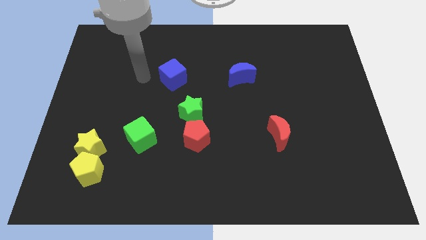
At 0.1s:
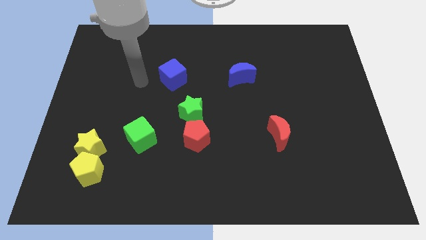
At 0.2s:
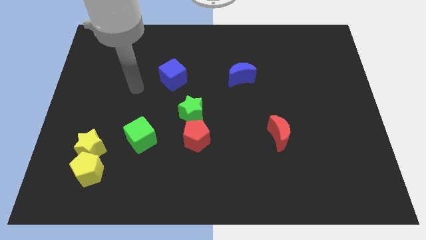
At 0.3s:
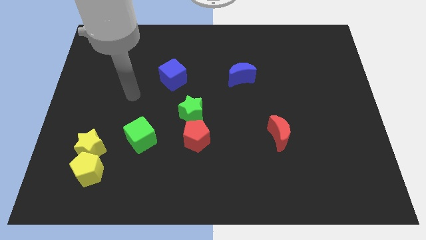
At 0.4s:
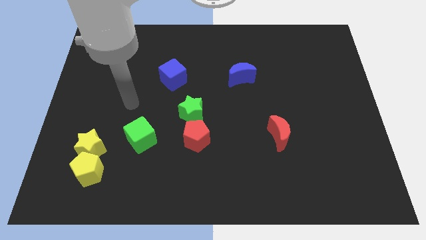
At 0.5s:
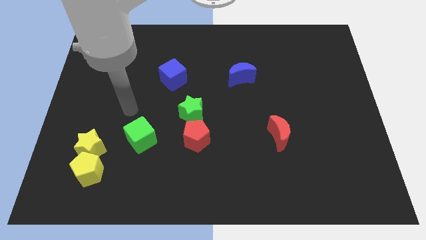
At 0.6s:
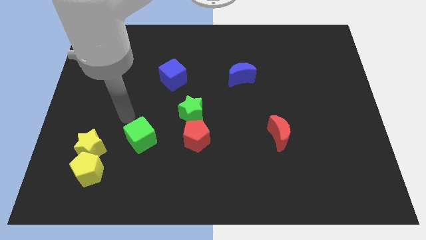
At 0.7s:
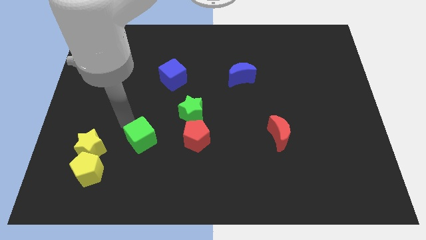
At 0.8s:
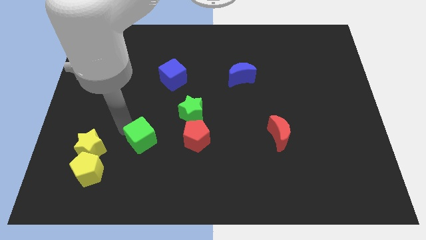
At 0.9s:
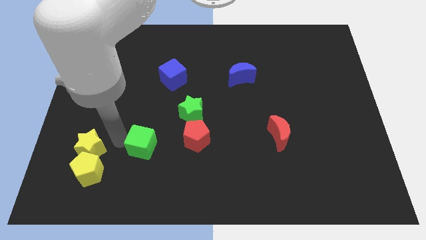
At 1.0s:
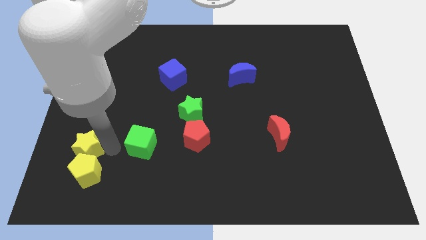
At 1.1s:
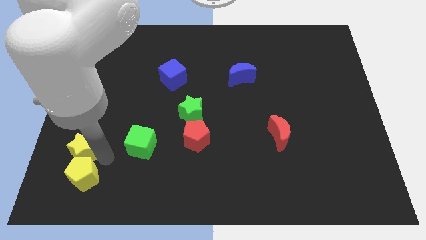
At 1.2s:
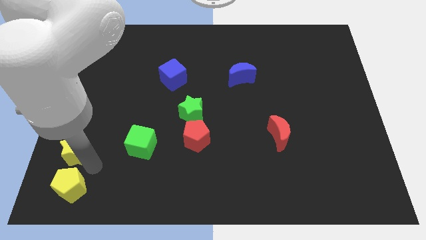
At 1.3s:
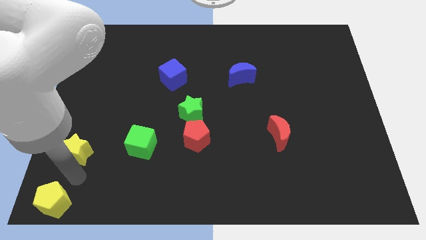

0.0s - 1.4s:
separate the yellow star from the yellow pentagon

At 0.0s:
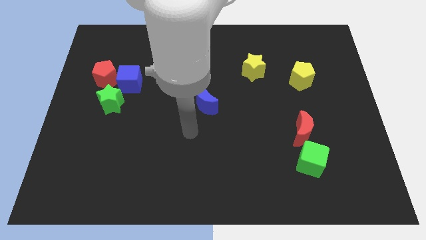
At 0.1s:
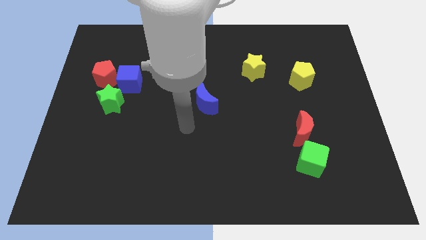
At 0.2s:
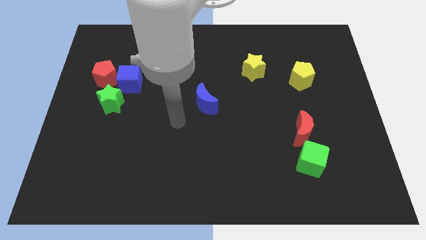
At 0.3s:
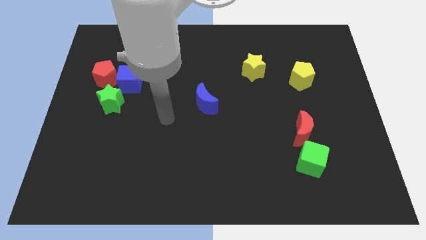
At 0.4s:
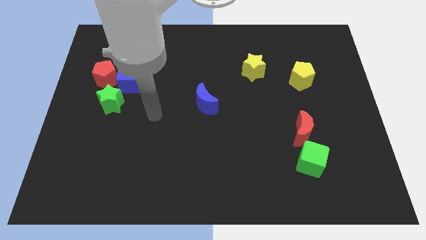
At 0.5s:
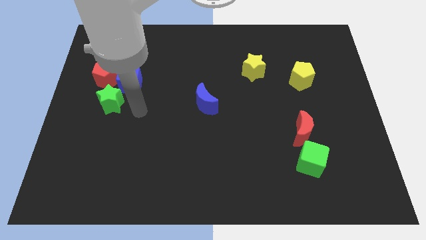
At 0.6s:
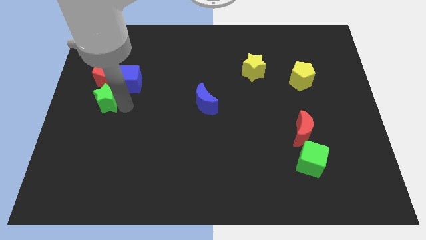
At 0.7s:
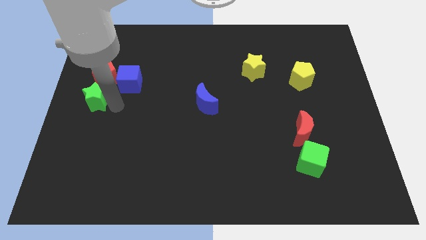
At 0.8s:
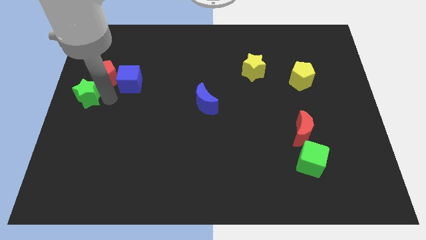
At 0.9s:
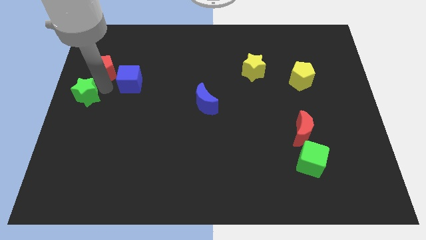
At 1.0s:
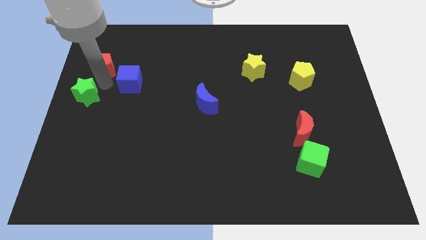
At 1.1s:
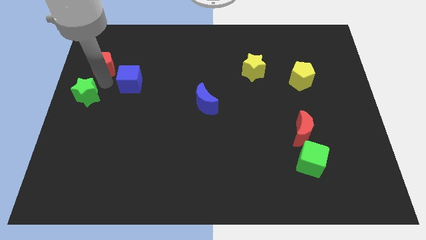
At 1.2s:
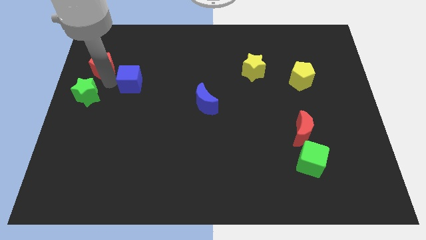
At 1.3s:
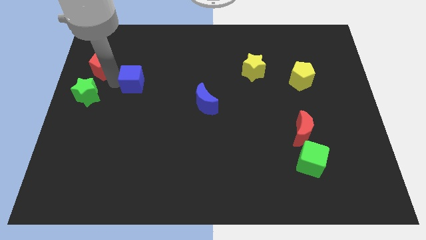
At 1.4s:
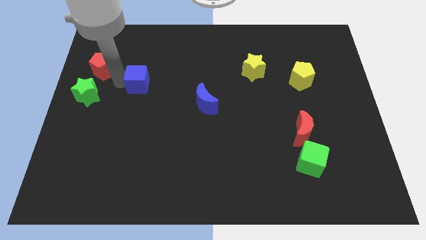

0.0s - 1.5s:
pull the blue cube apart from the red pentagon and green star

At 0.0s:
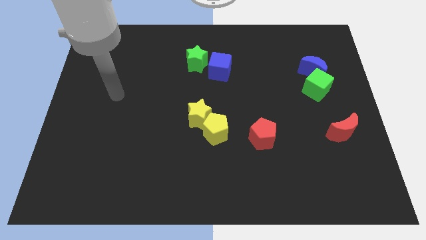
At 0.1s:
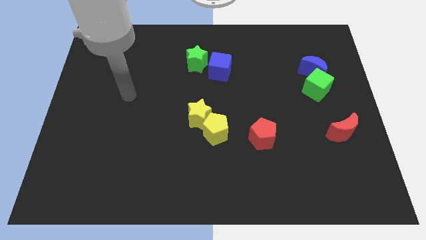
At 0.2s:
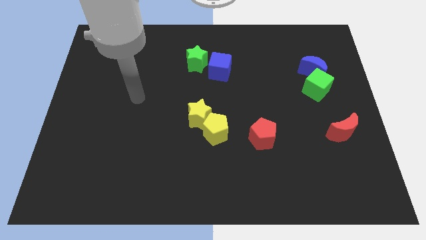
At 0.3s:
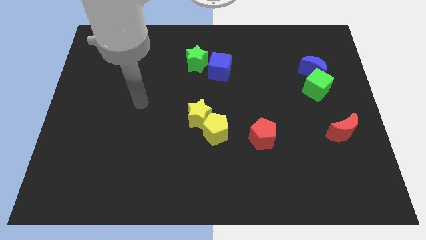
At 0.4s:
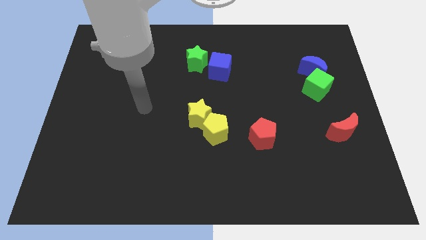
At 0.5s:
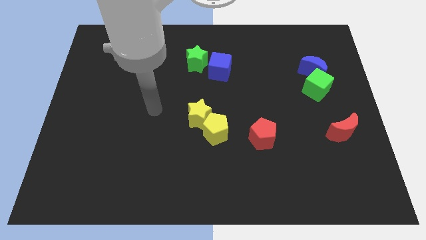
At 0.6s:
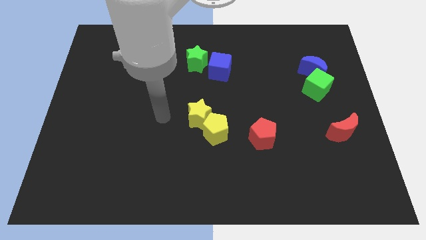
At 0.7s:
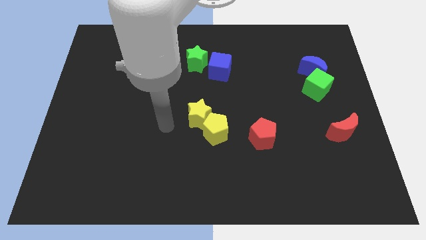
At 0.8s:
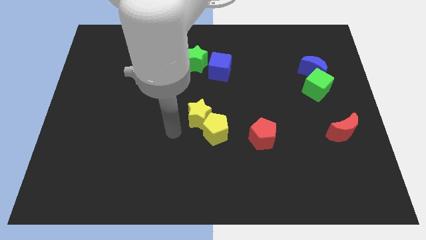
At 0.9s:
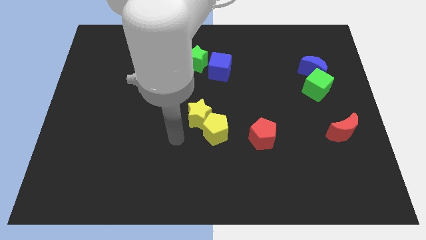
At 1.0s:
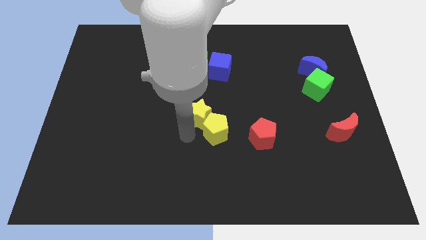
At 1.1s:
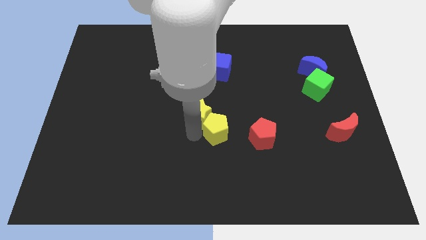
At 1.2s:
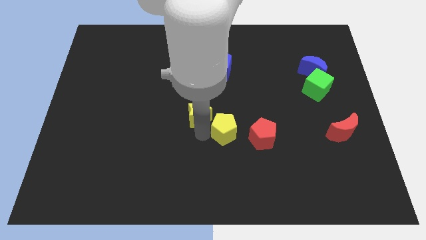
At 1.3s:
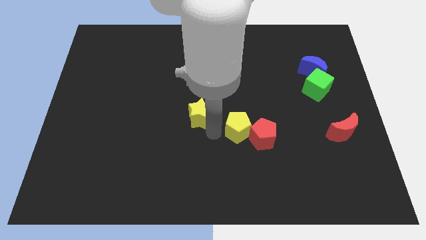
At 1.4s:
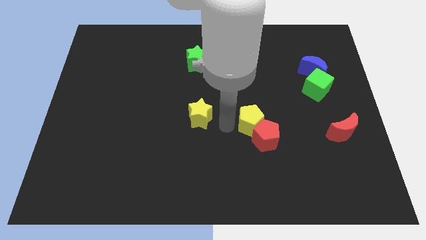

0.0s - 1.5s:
pull the yellow star apart from the yellow pentagon

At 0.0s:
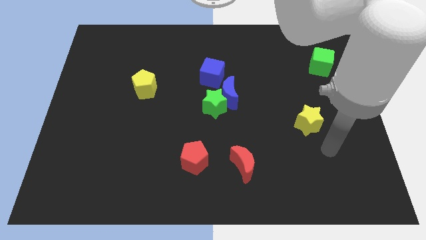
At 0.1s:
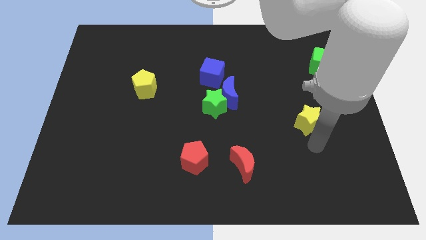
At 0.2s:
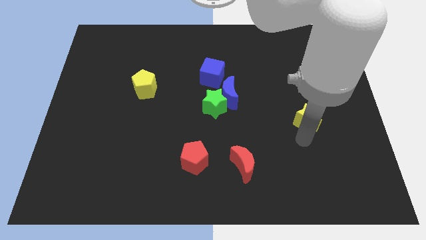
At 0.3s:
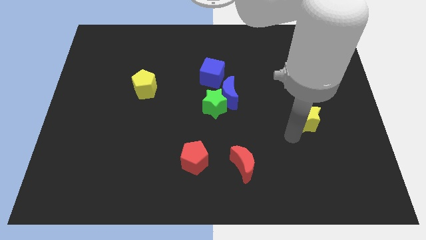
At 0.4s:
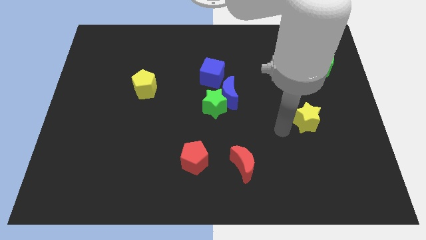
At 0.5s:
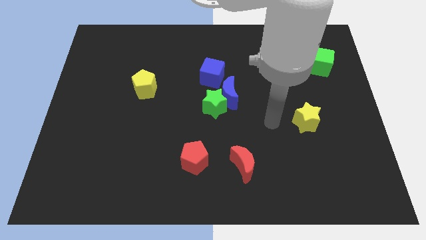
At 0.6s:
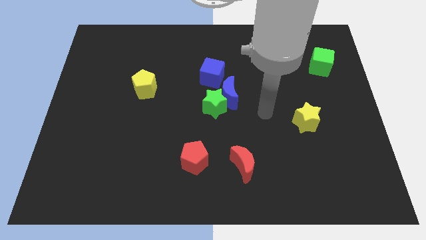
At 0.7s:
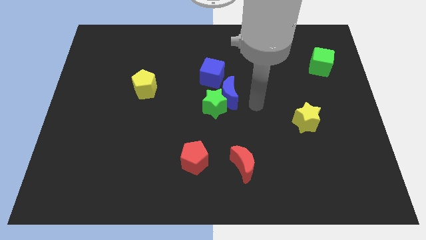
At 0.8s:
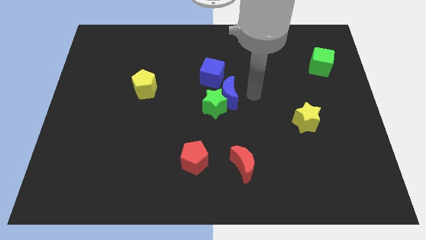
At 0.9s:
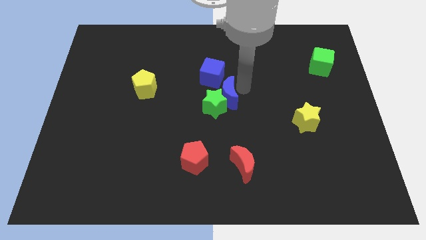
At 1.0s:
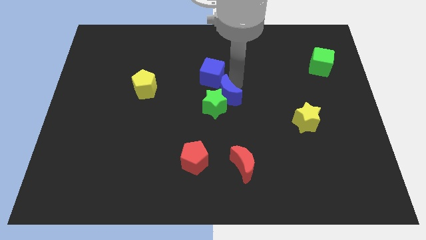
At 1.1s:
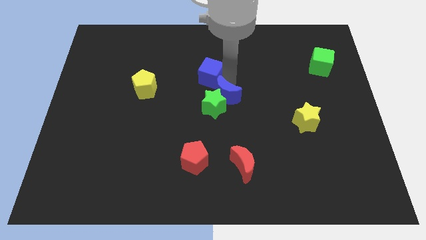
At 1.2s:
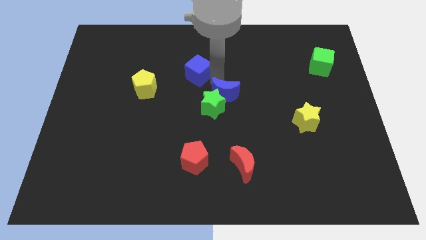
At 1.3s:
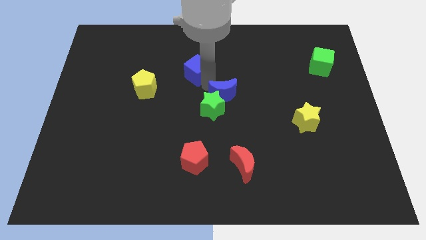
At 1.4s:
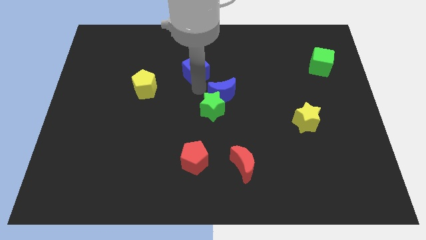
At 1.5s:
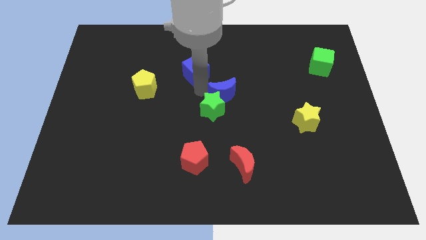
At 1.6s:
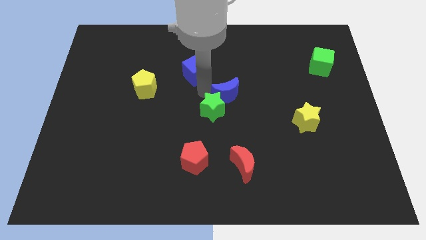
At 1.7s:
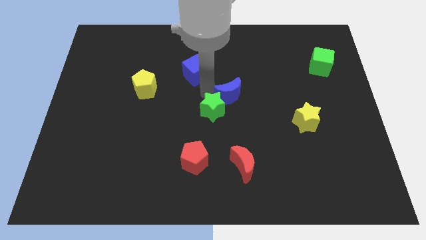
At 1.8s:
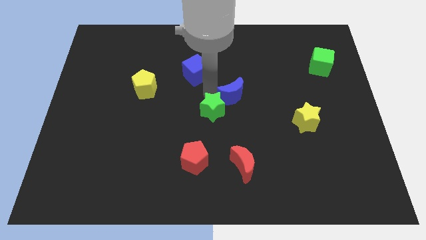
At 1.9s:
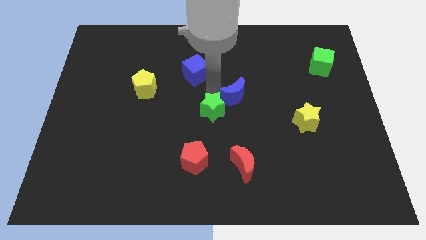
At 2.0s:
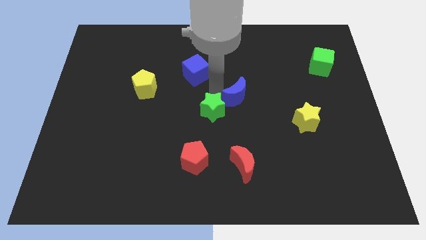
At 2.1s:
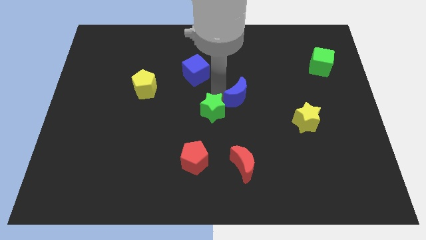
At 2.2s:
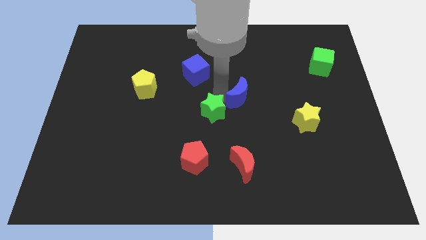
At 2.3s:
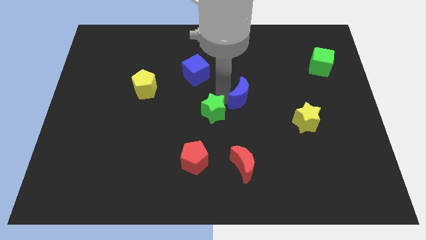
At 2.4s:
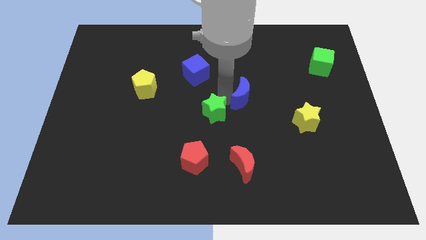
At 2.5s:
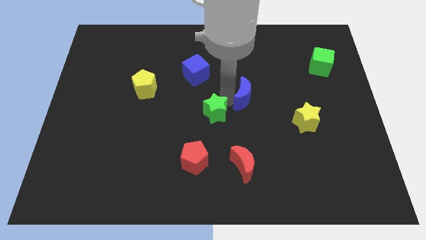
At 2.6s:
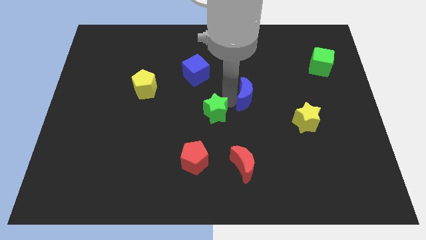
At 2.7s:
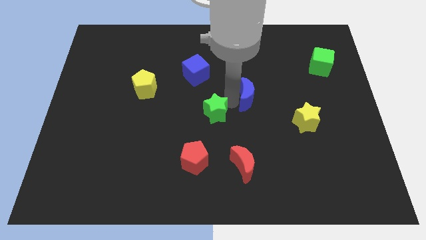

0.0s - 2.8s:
separate the blue moon from the green star and blue cube

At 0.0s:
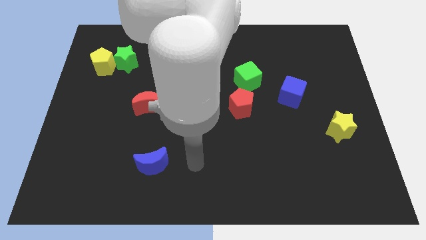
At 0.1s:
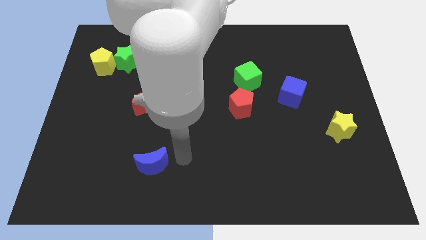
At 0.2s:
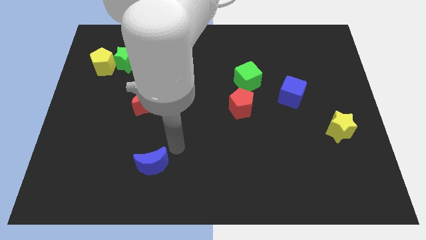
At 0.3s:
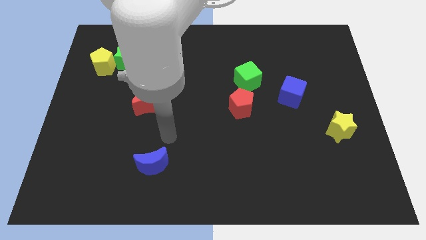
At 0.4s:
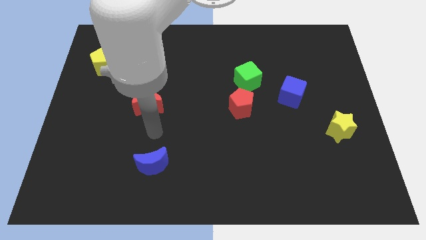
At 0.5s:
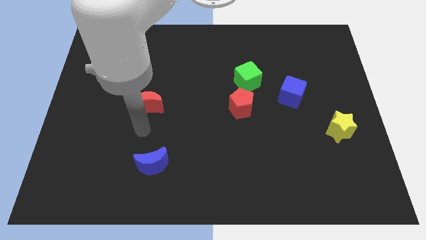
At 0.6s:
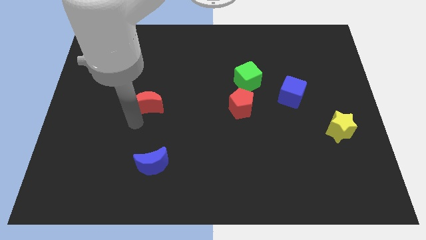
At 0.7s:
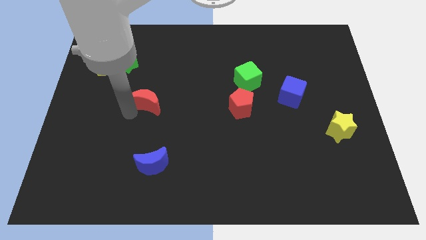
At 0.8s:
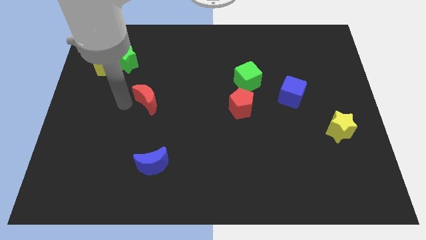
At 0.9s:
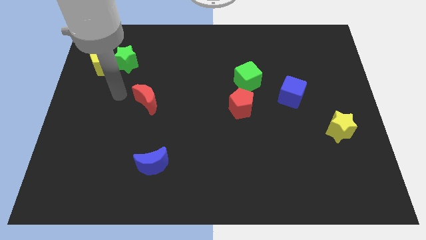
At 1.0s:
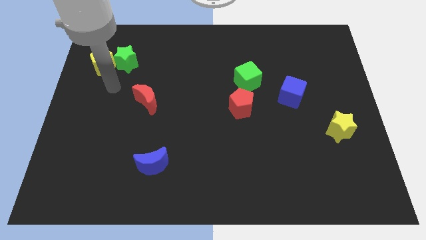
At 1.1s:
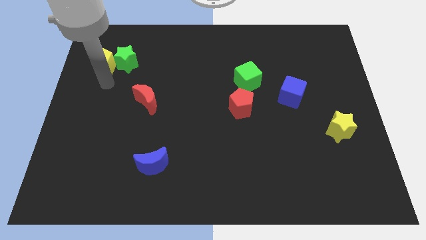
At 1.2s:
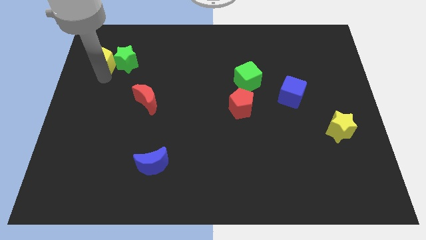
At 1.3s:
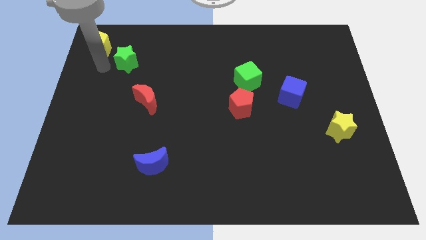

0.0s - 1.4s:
separate the green star from the yellow pentagon

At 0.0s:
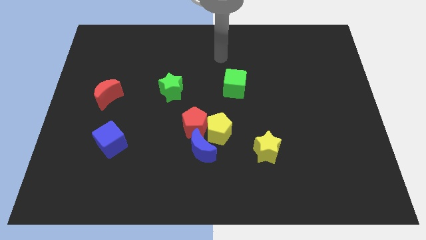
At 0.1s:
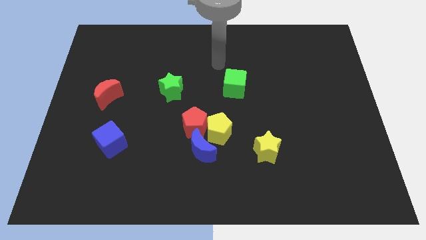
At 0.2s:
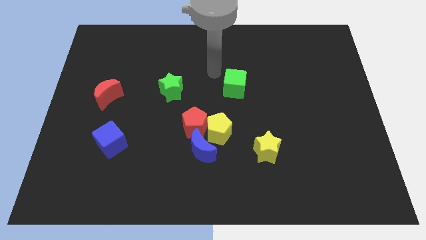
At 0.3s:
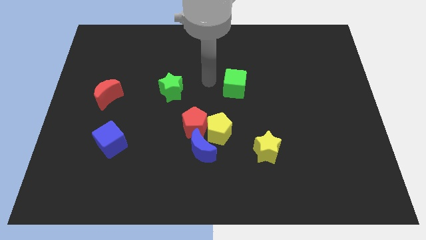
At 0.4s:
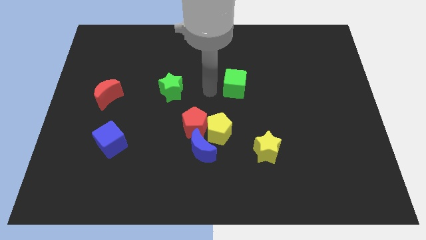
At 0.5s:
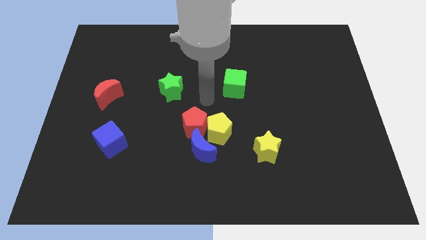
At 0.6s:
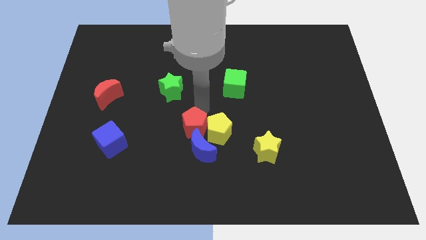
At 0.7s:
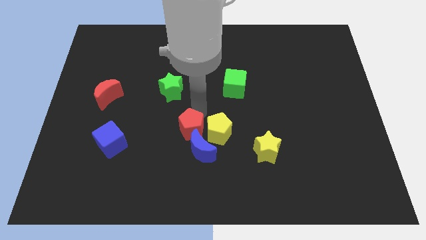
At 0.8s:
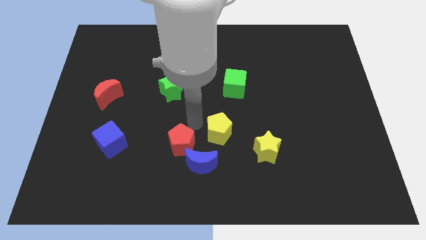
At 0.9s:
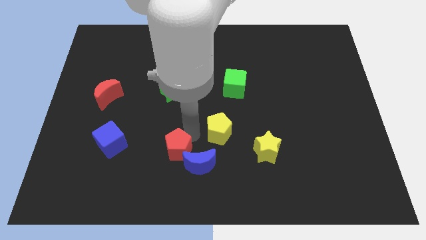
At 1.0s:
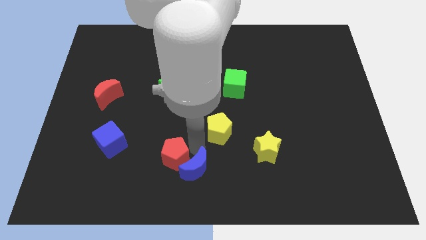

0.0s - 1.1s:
separate the yellow pentagon from the red pentagon and blue moon
